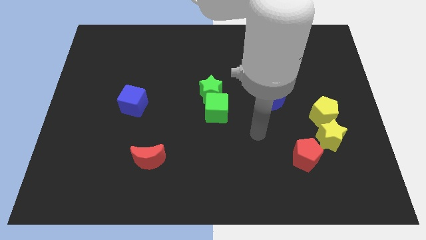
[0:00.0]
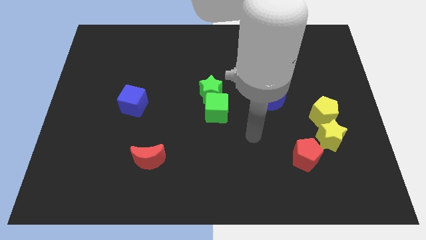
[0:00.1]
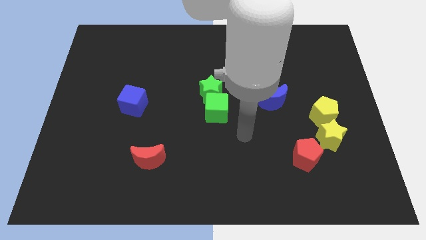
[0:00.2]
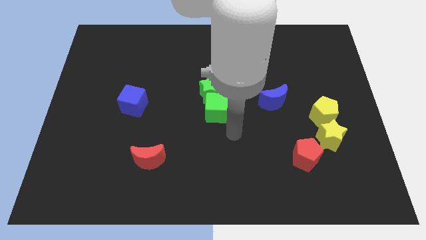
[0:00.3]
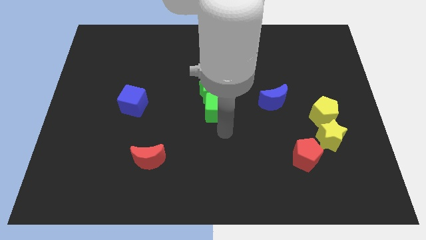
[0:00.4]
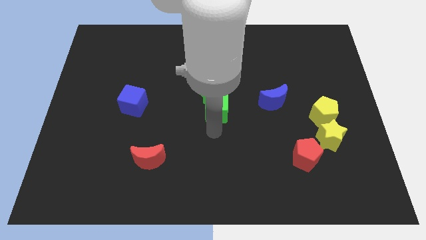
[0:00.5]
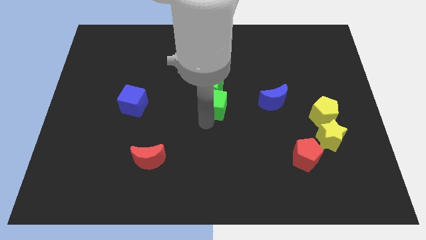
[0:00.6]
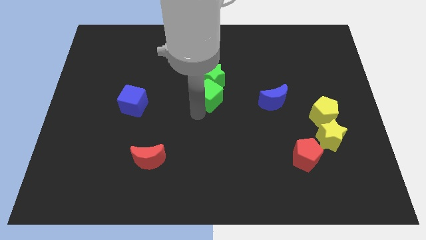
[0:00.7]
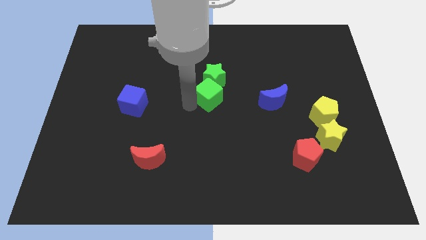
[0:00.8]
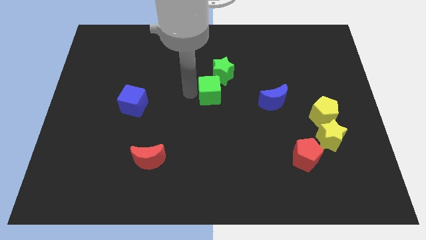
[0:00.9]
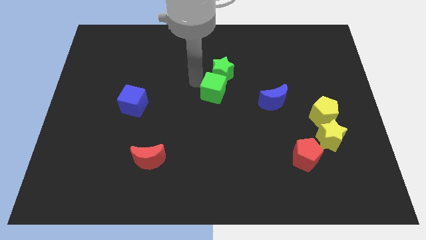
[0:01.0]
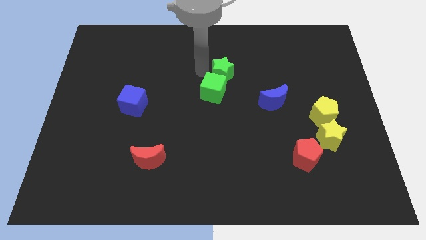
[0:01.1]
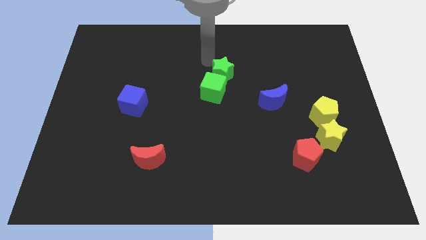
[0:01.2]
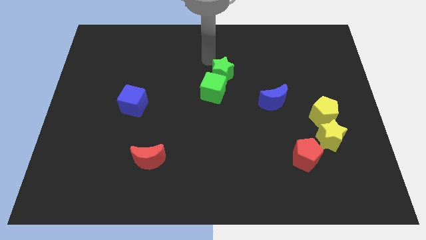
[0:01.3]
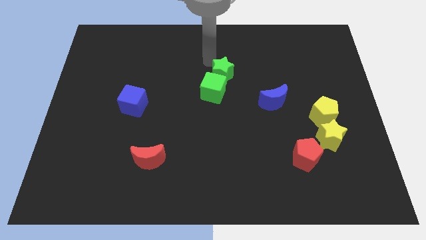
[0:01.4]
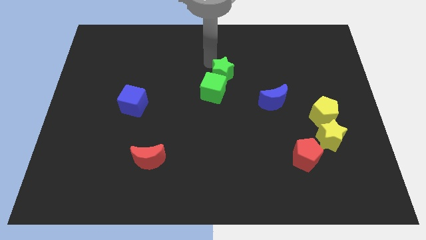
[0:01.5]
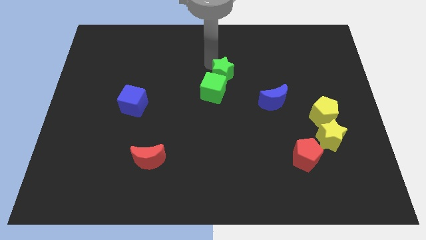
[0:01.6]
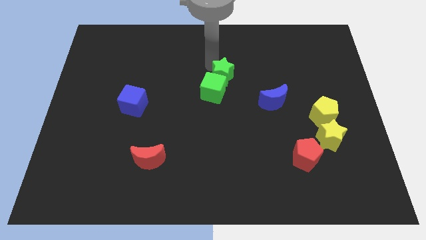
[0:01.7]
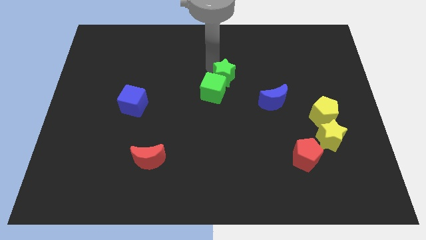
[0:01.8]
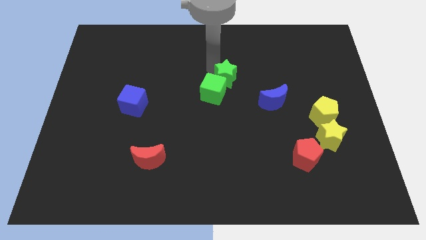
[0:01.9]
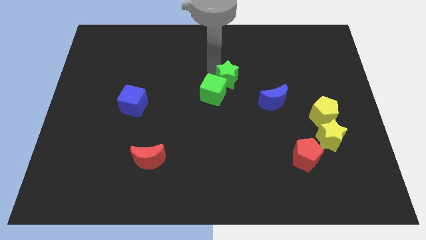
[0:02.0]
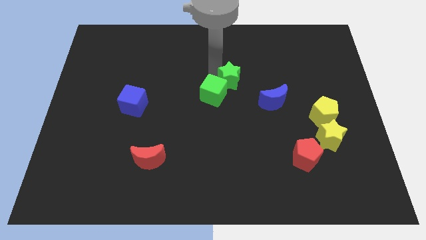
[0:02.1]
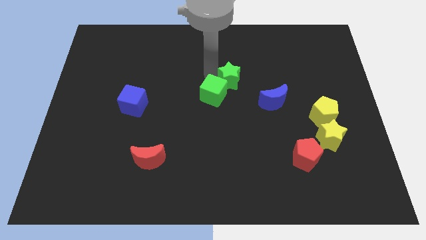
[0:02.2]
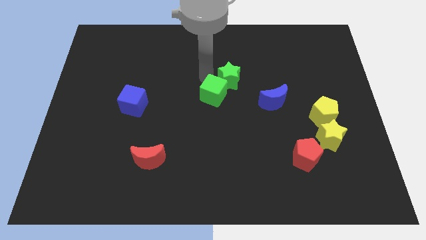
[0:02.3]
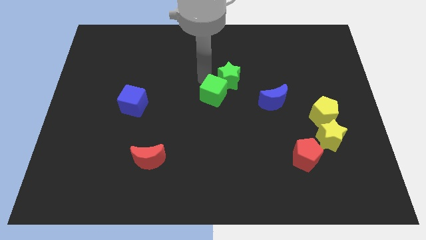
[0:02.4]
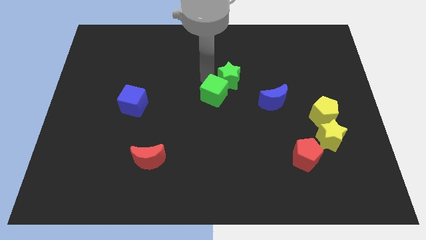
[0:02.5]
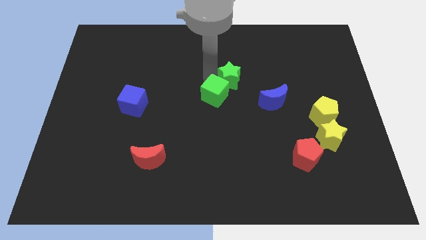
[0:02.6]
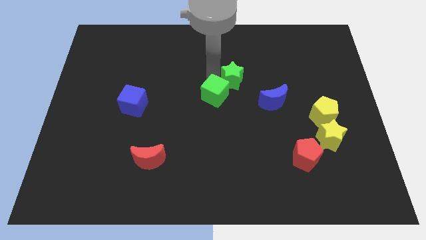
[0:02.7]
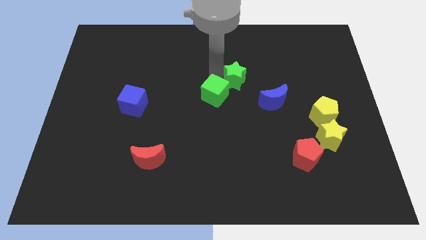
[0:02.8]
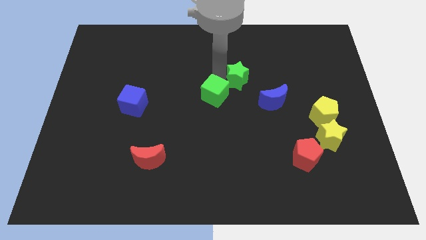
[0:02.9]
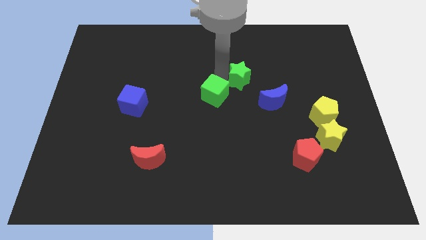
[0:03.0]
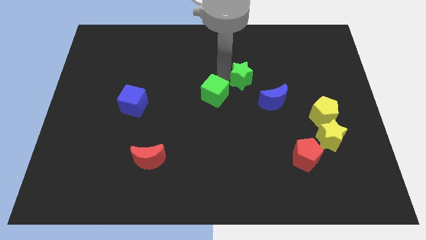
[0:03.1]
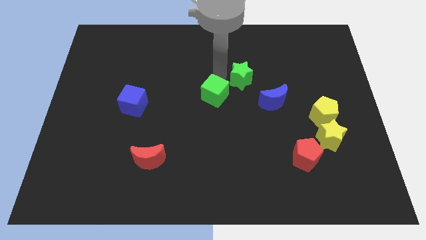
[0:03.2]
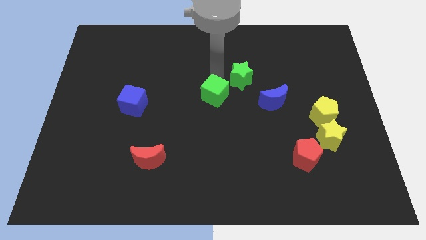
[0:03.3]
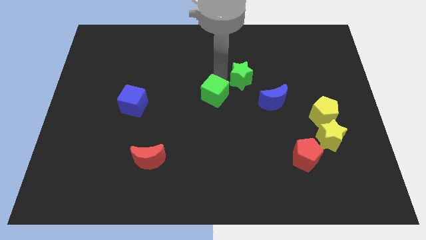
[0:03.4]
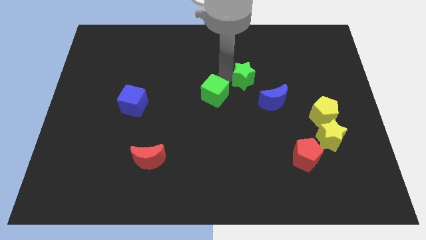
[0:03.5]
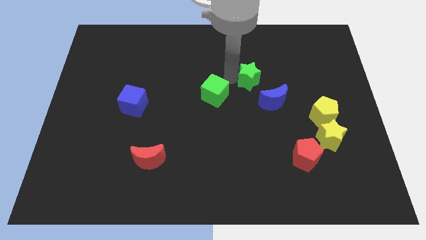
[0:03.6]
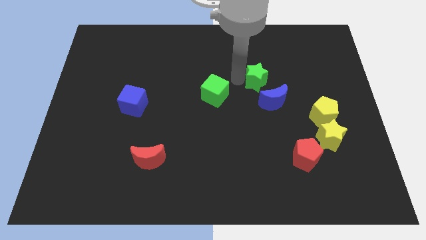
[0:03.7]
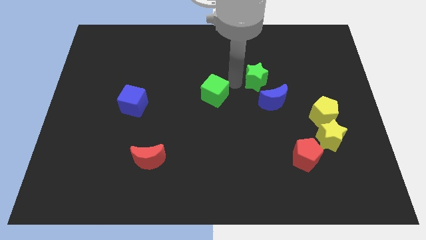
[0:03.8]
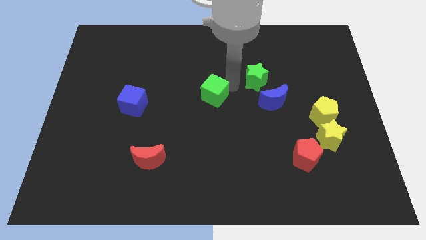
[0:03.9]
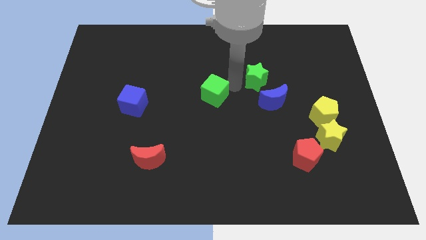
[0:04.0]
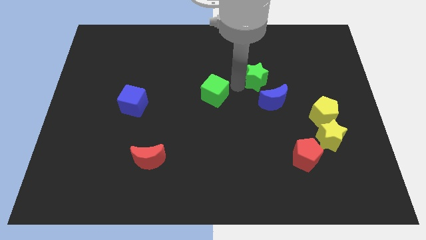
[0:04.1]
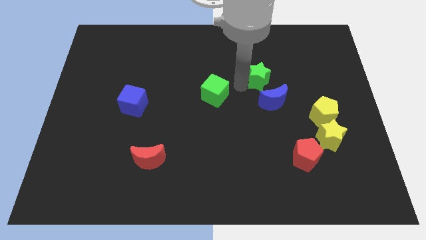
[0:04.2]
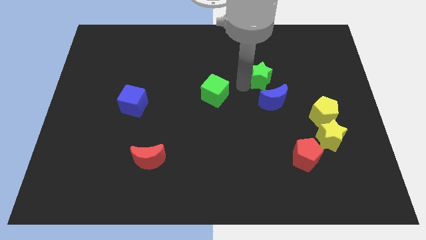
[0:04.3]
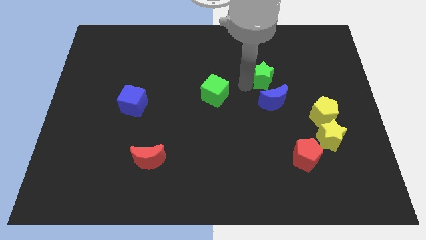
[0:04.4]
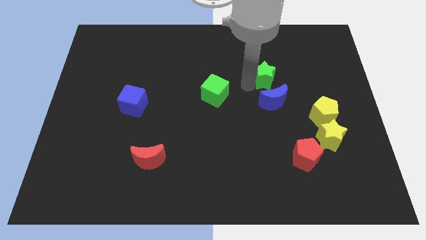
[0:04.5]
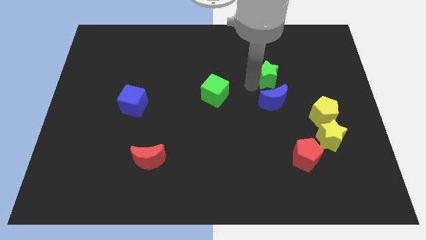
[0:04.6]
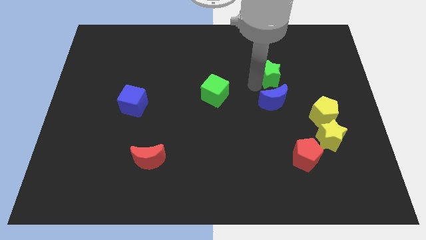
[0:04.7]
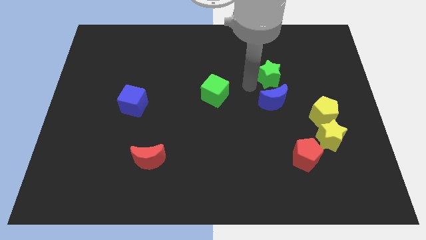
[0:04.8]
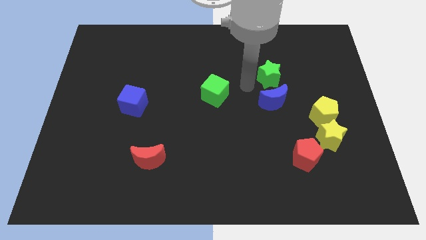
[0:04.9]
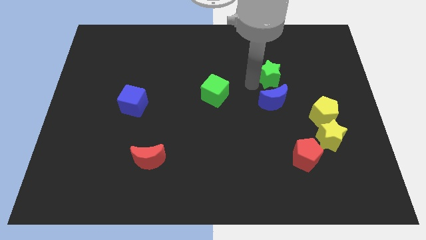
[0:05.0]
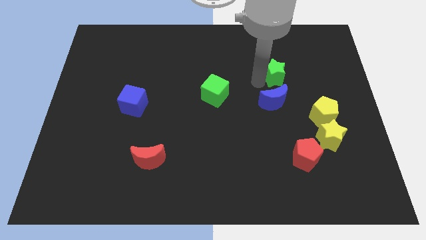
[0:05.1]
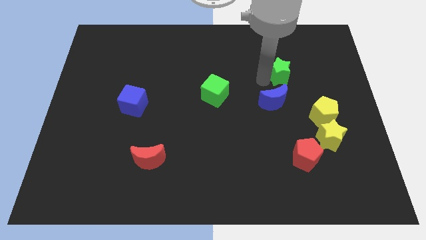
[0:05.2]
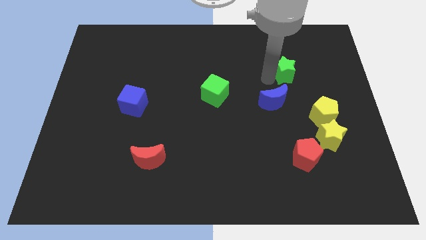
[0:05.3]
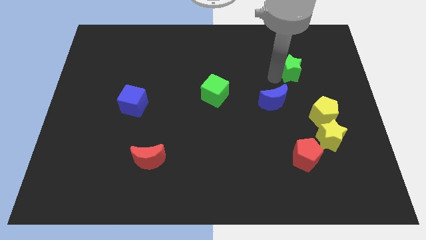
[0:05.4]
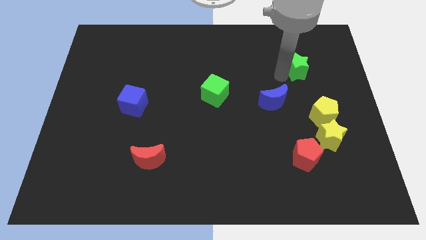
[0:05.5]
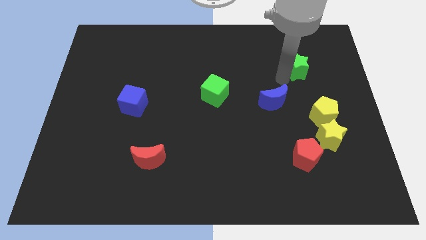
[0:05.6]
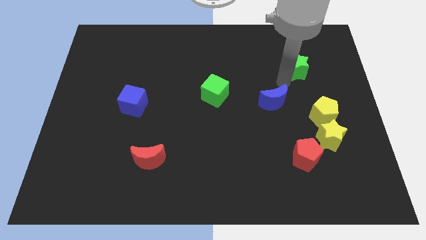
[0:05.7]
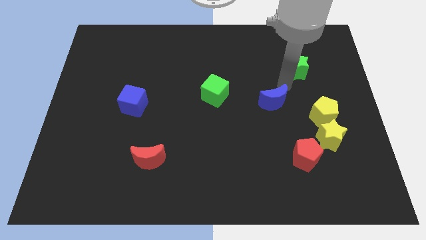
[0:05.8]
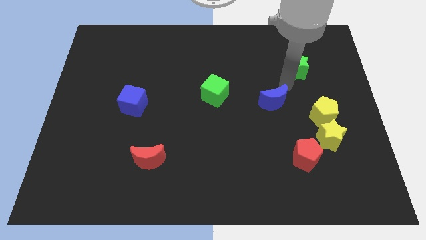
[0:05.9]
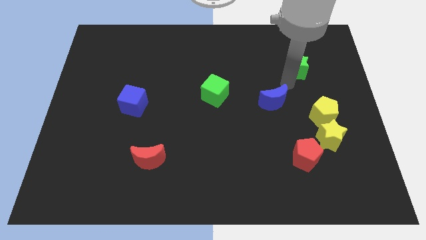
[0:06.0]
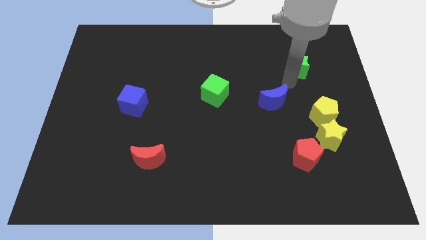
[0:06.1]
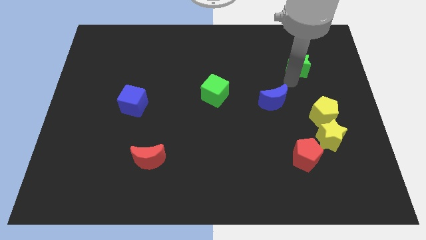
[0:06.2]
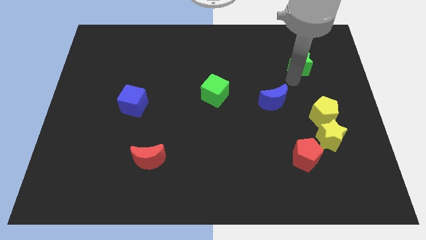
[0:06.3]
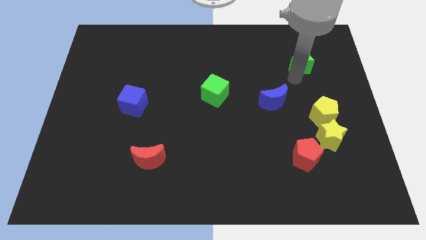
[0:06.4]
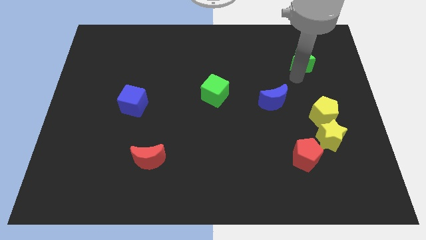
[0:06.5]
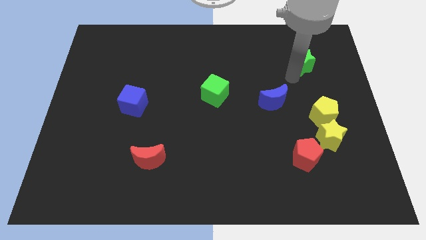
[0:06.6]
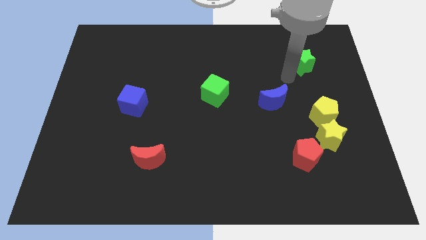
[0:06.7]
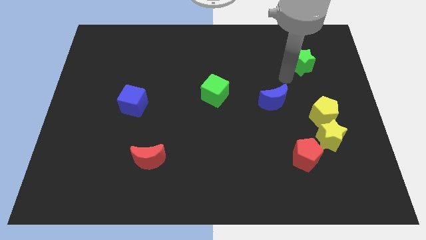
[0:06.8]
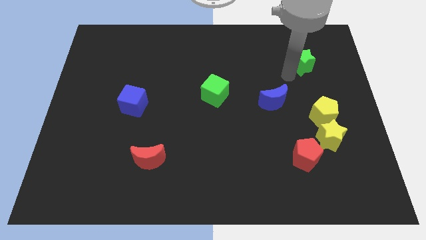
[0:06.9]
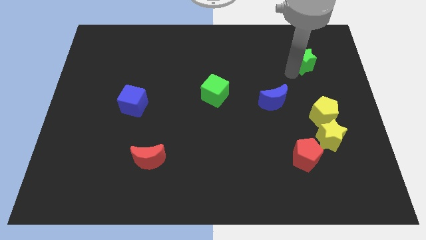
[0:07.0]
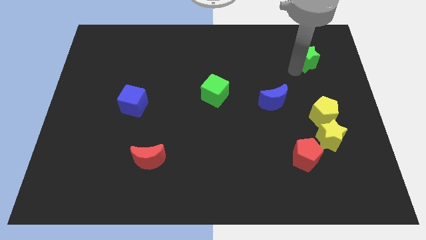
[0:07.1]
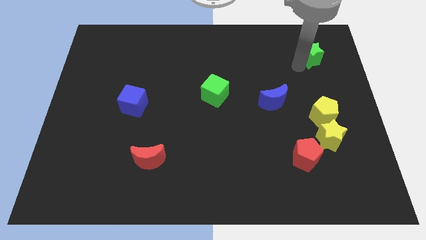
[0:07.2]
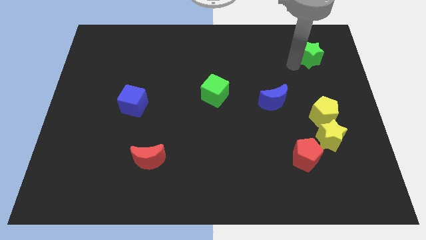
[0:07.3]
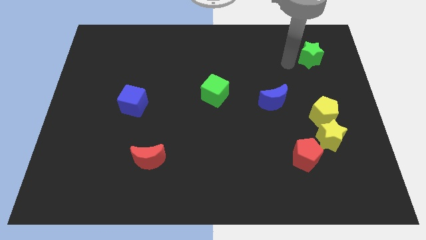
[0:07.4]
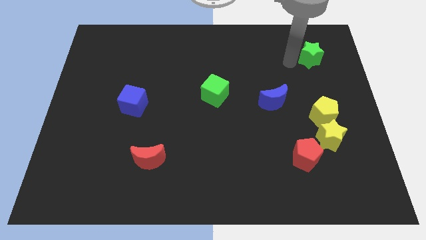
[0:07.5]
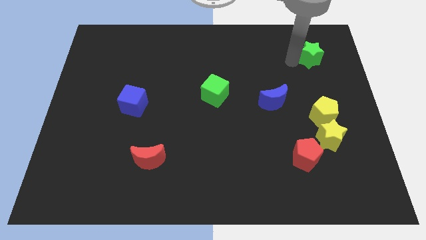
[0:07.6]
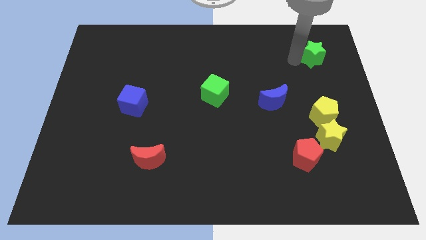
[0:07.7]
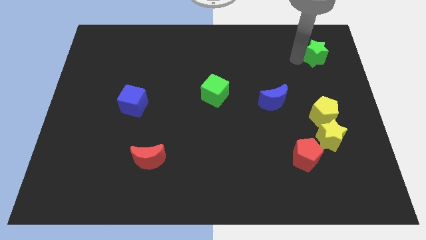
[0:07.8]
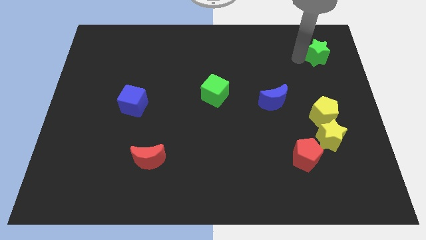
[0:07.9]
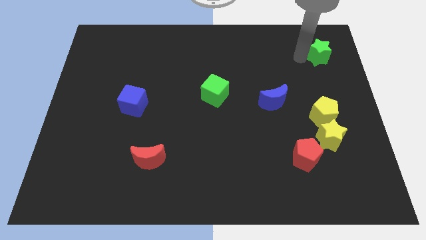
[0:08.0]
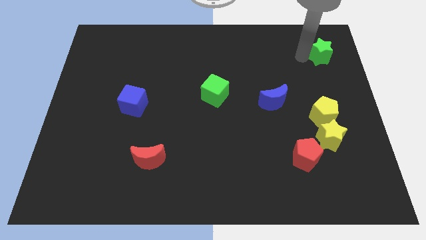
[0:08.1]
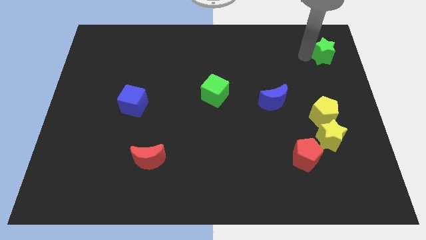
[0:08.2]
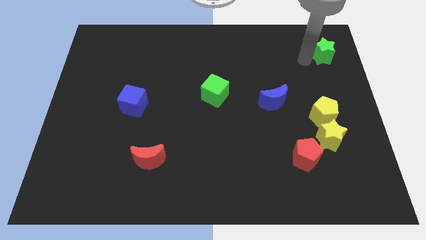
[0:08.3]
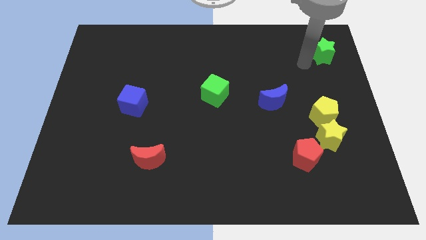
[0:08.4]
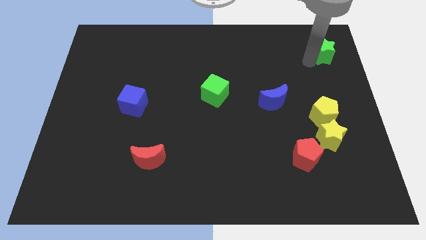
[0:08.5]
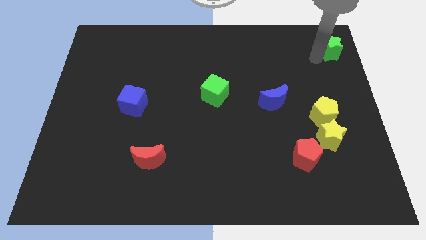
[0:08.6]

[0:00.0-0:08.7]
push the green star to the top right
